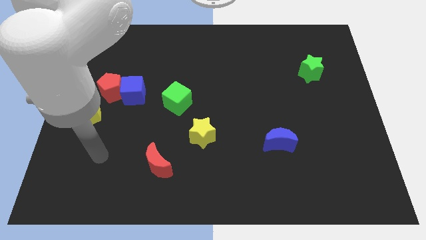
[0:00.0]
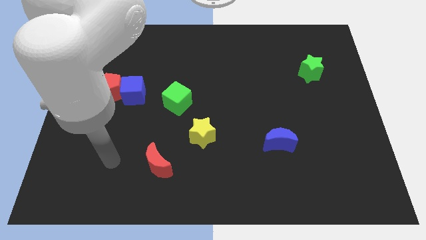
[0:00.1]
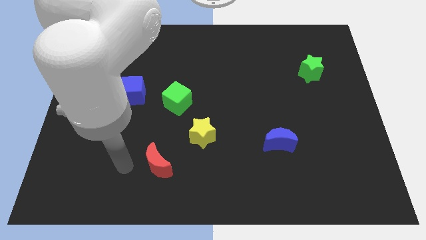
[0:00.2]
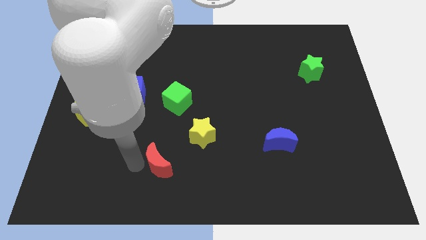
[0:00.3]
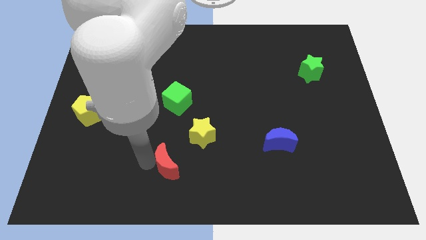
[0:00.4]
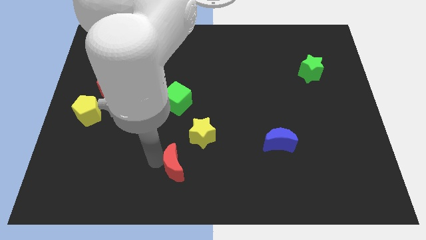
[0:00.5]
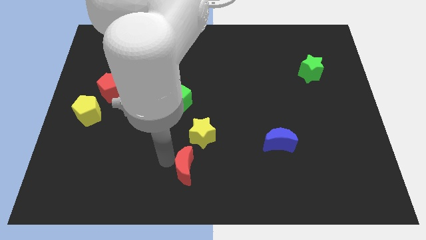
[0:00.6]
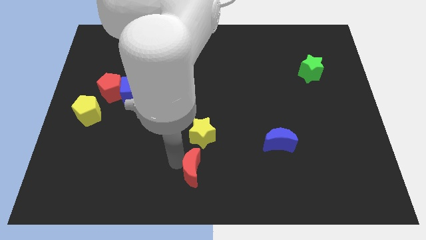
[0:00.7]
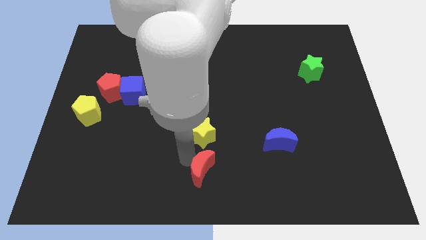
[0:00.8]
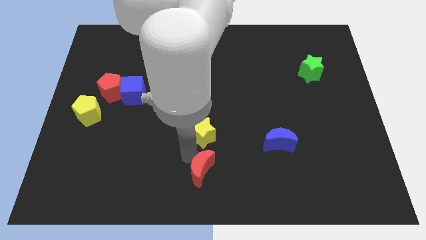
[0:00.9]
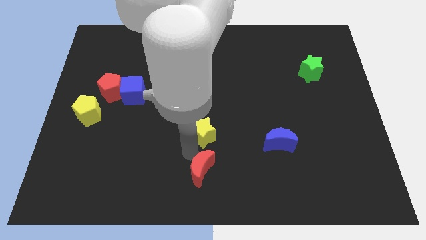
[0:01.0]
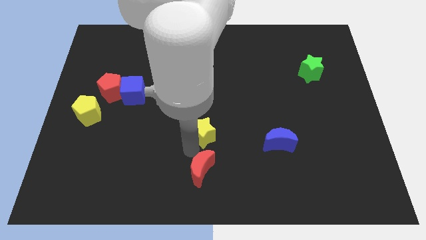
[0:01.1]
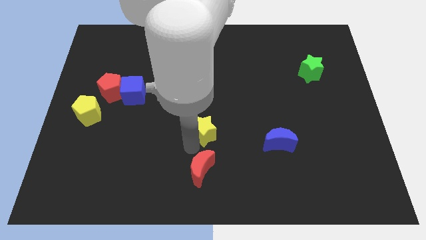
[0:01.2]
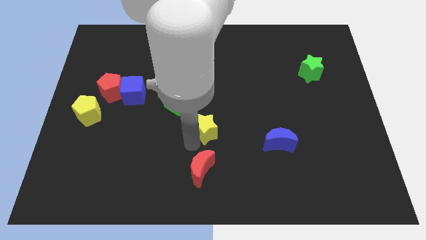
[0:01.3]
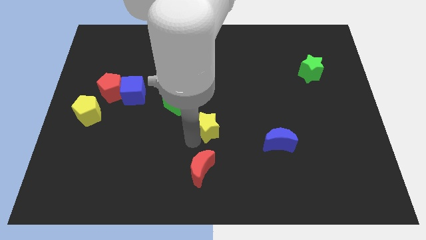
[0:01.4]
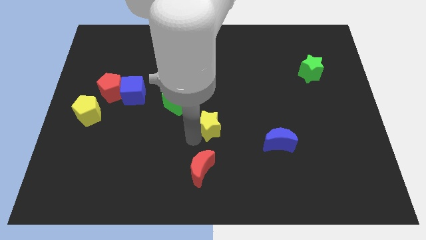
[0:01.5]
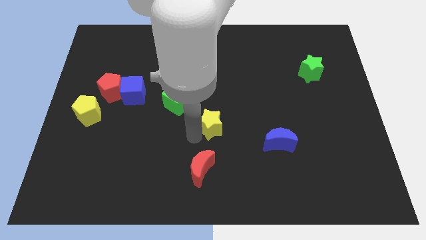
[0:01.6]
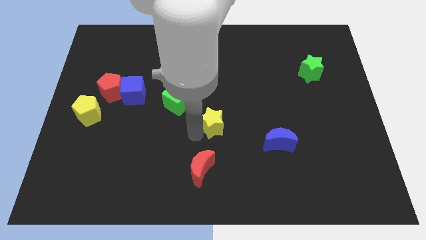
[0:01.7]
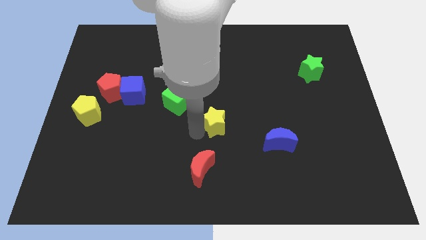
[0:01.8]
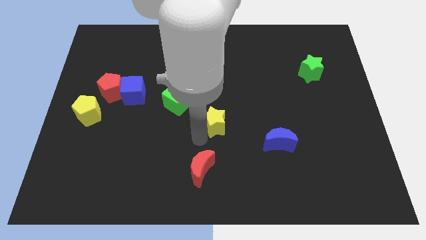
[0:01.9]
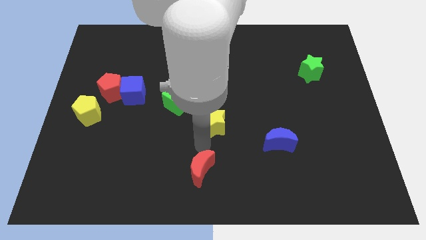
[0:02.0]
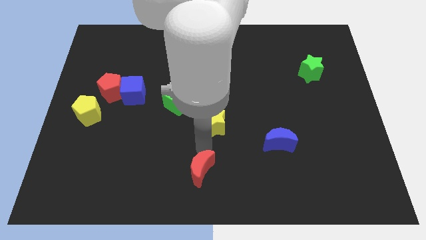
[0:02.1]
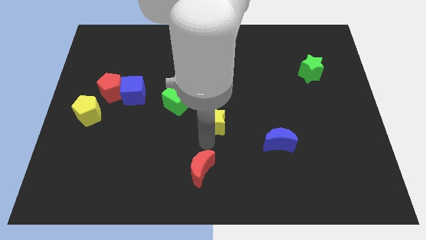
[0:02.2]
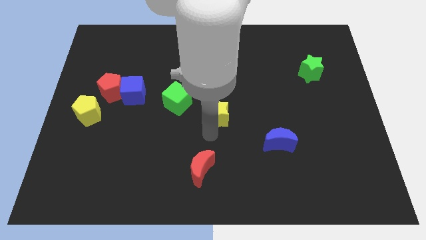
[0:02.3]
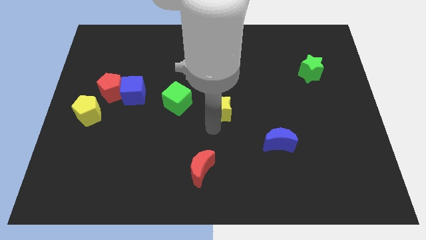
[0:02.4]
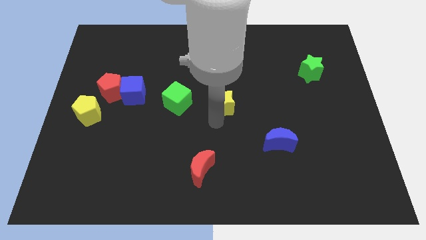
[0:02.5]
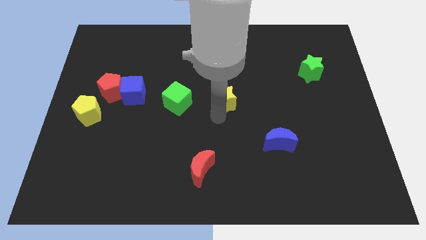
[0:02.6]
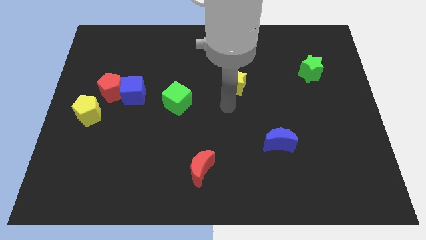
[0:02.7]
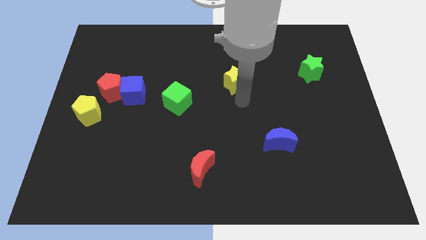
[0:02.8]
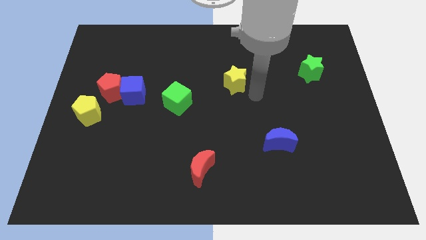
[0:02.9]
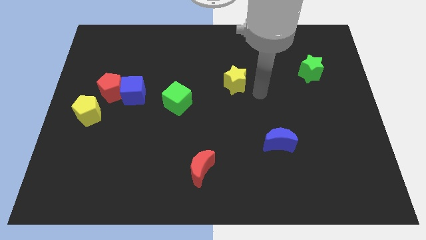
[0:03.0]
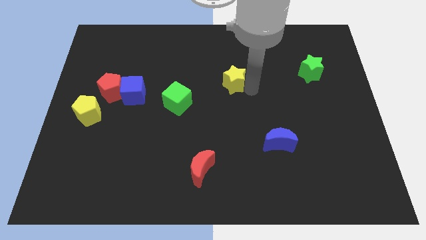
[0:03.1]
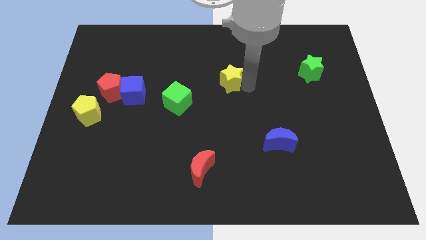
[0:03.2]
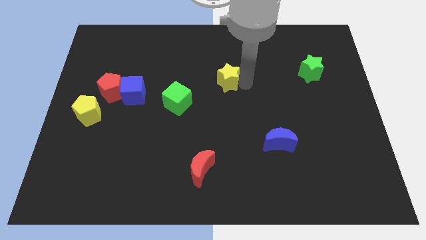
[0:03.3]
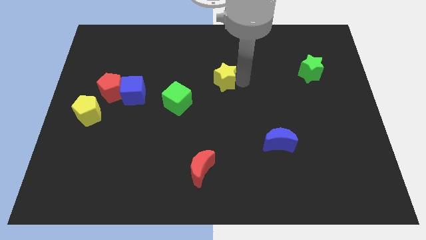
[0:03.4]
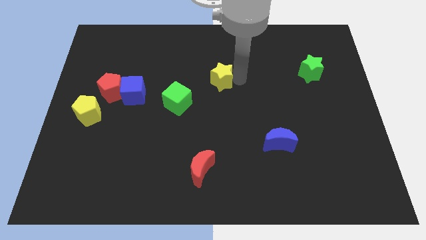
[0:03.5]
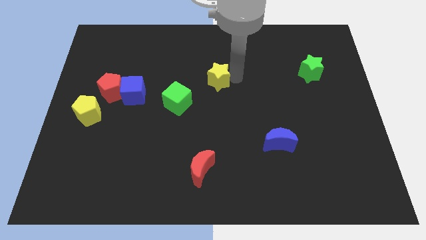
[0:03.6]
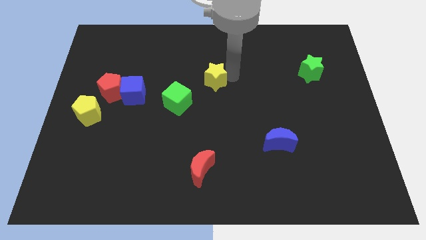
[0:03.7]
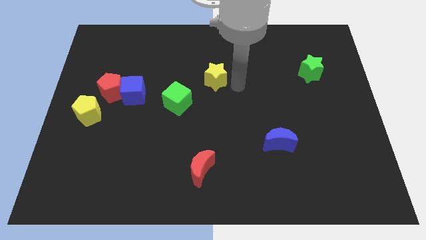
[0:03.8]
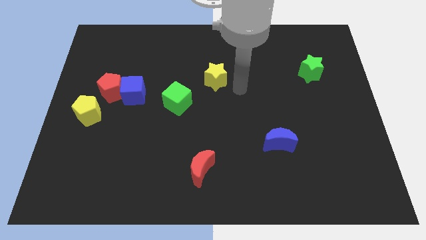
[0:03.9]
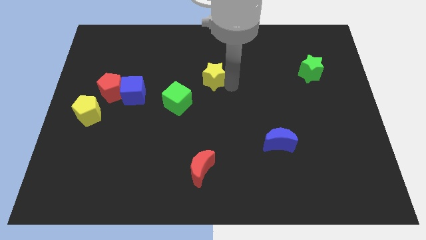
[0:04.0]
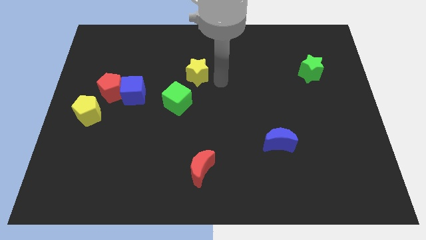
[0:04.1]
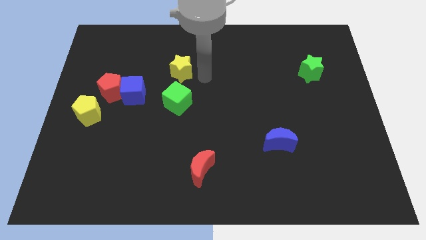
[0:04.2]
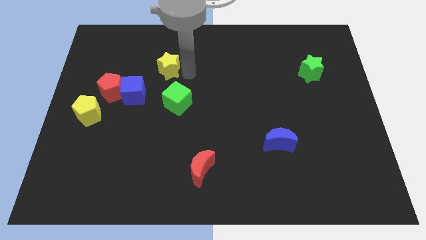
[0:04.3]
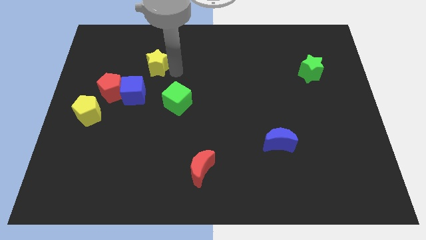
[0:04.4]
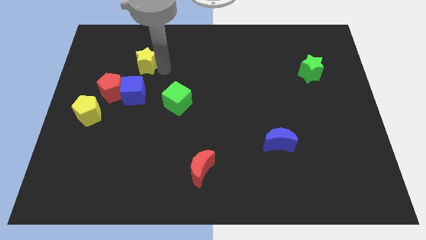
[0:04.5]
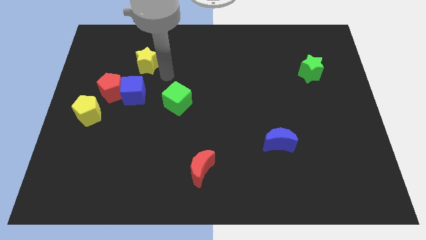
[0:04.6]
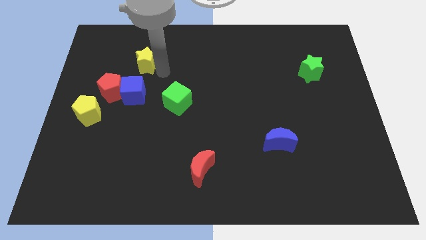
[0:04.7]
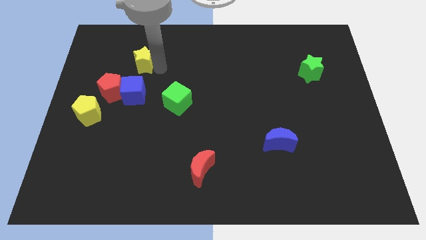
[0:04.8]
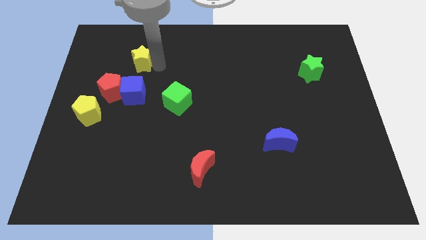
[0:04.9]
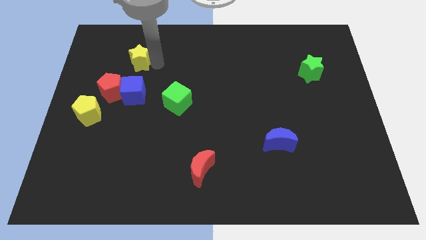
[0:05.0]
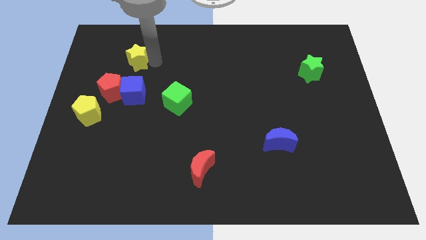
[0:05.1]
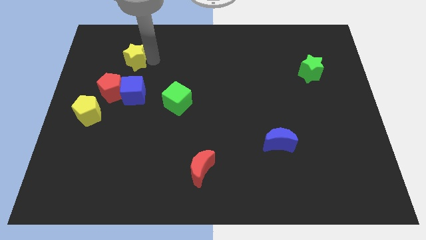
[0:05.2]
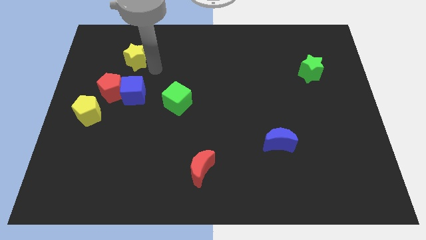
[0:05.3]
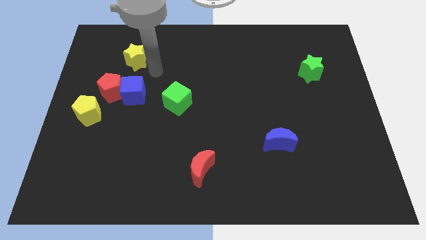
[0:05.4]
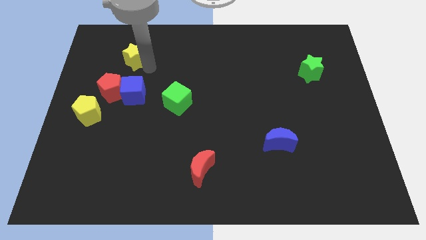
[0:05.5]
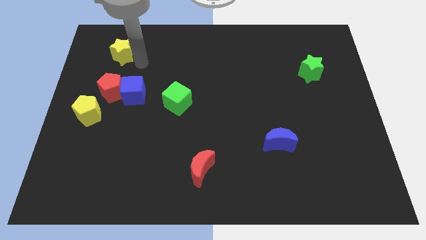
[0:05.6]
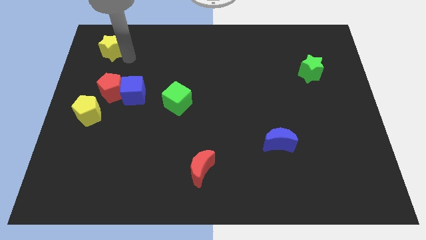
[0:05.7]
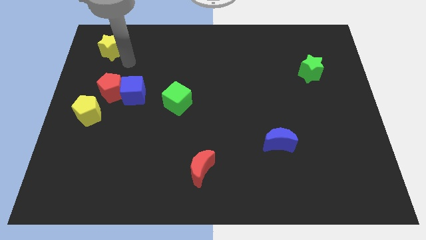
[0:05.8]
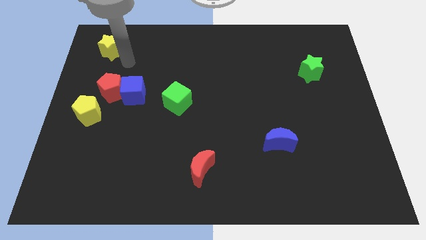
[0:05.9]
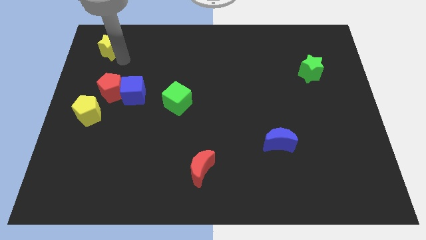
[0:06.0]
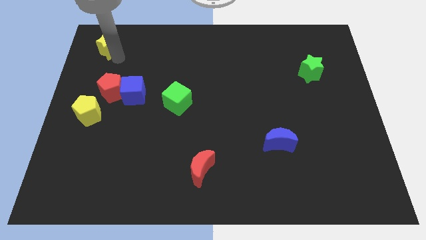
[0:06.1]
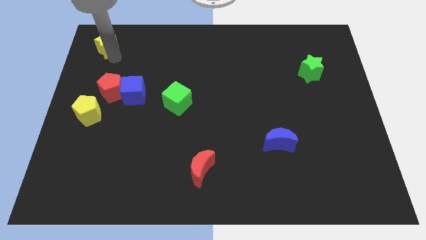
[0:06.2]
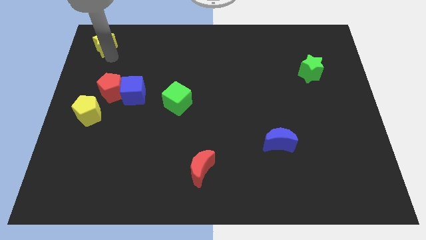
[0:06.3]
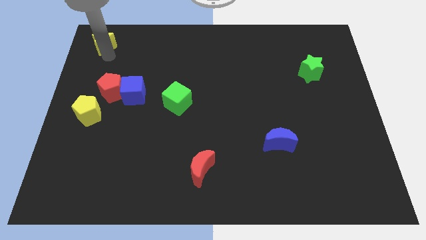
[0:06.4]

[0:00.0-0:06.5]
put the yellow star to the top left corner

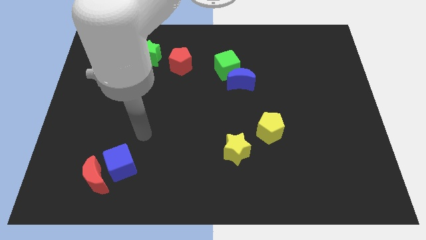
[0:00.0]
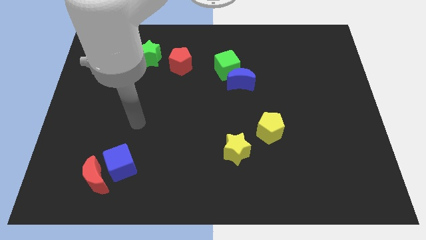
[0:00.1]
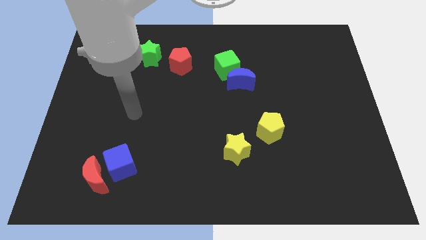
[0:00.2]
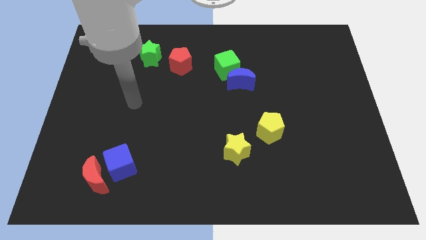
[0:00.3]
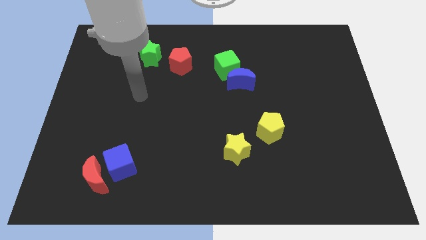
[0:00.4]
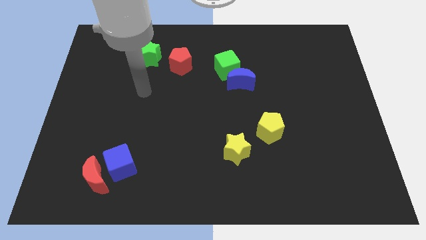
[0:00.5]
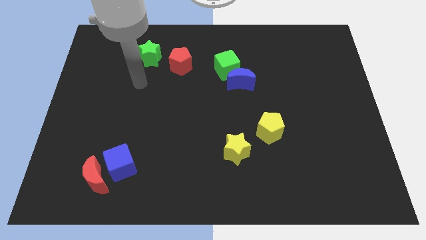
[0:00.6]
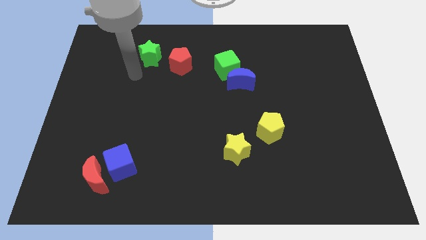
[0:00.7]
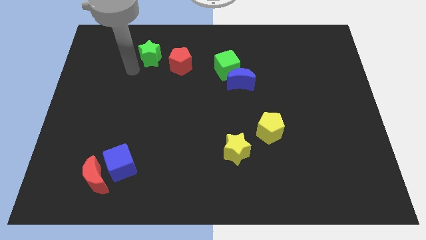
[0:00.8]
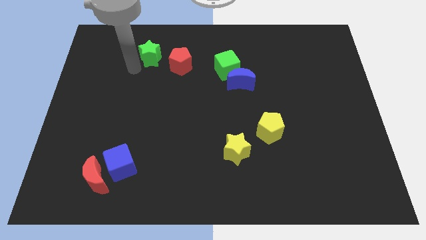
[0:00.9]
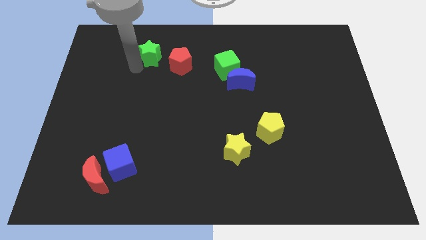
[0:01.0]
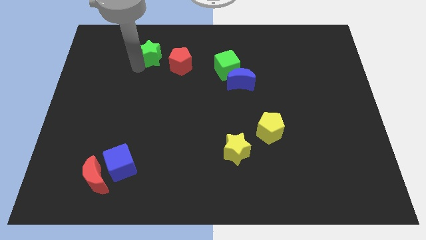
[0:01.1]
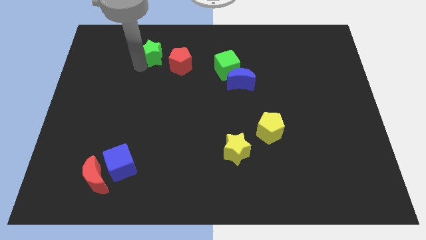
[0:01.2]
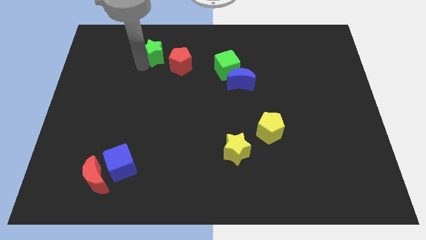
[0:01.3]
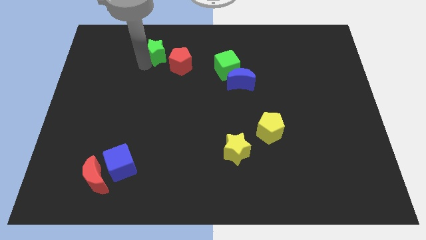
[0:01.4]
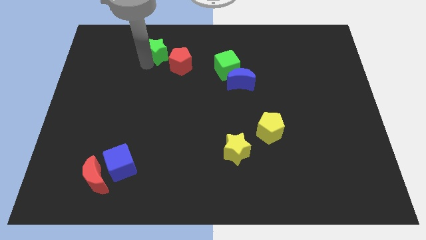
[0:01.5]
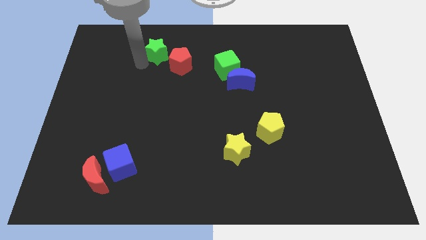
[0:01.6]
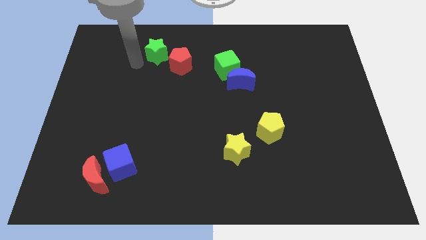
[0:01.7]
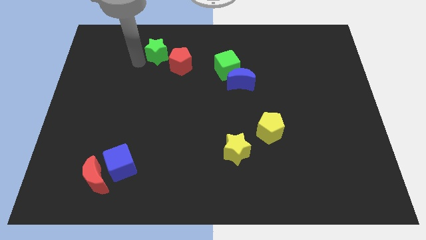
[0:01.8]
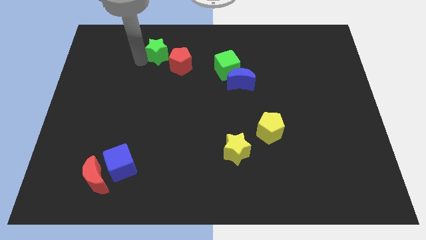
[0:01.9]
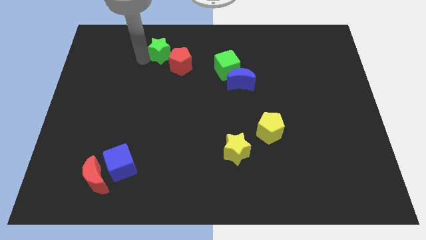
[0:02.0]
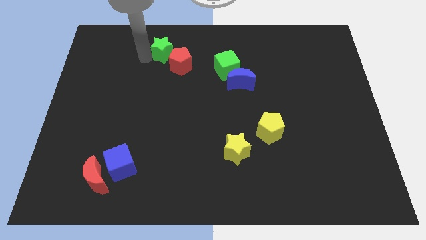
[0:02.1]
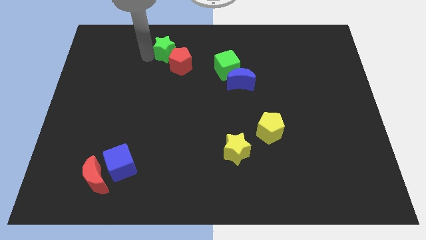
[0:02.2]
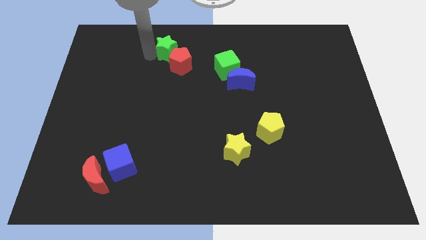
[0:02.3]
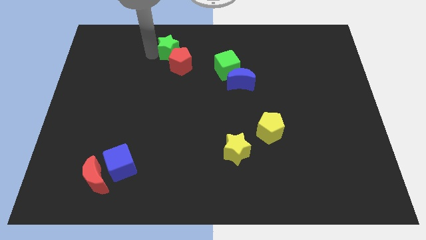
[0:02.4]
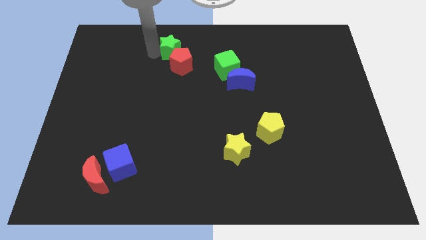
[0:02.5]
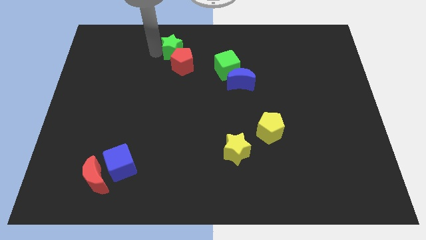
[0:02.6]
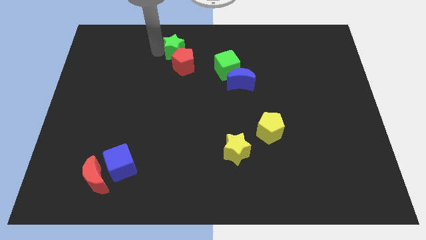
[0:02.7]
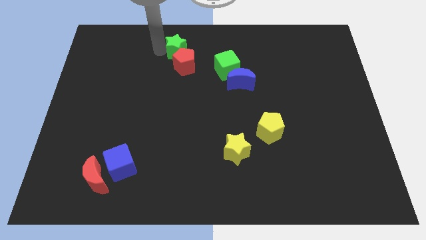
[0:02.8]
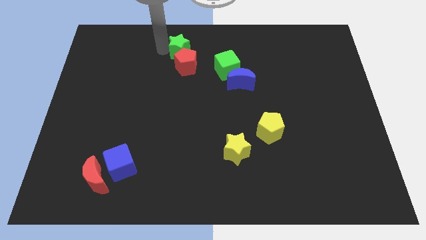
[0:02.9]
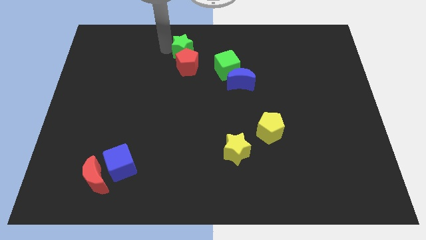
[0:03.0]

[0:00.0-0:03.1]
put the green star to the towards your base
